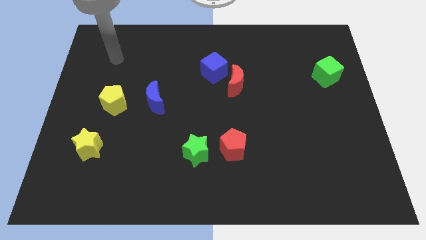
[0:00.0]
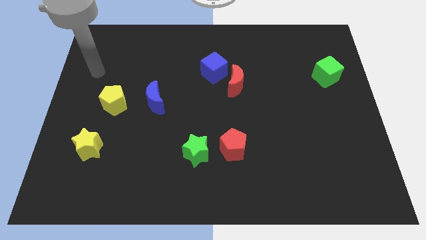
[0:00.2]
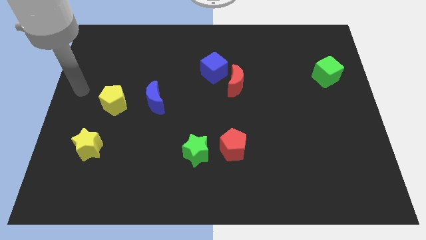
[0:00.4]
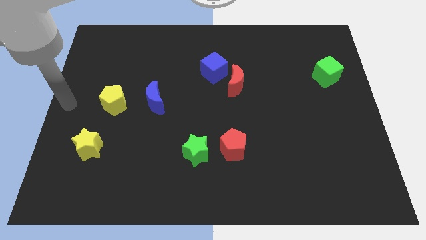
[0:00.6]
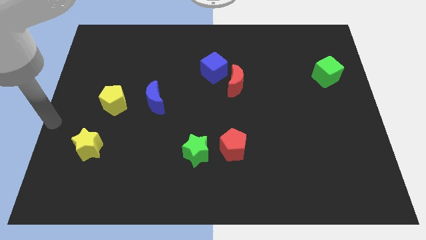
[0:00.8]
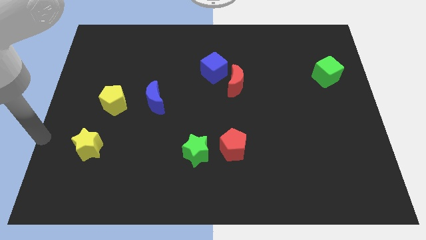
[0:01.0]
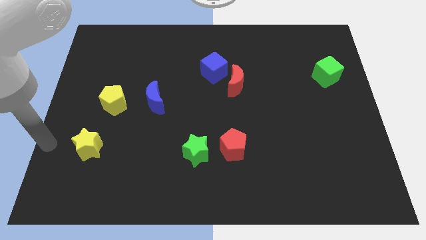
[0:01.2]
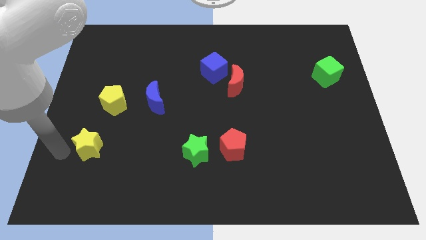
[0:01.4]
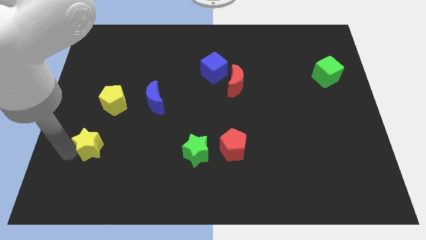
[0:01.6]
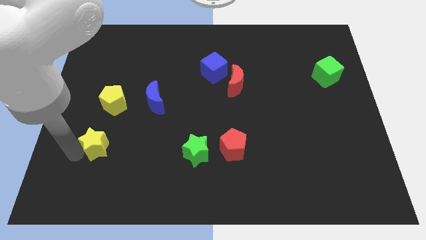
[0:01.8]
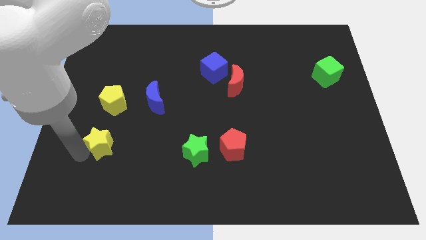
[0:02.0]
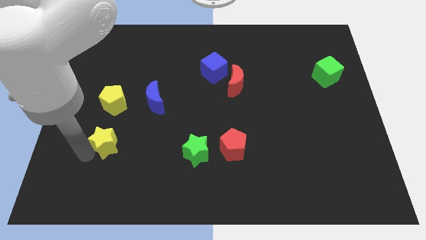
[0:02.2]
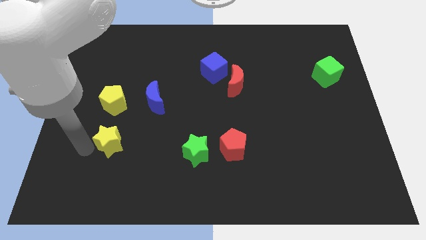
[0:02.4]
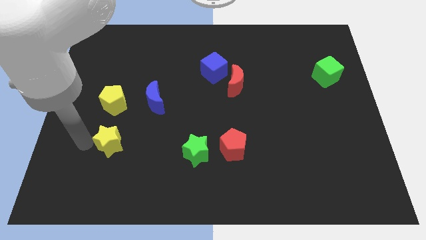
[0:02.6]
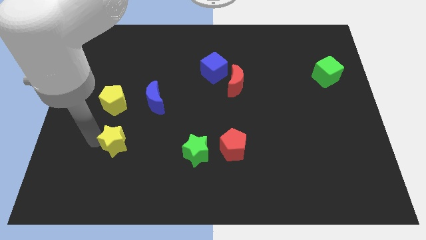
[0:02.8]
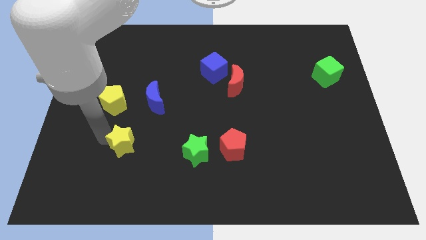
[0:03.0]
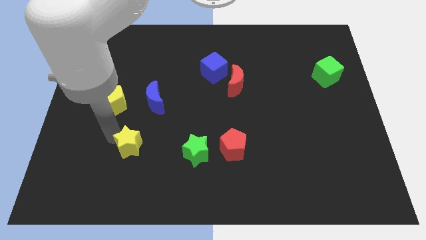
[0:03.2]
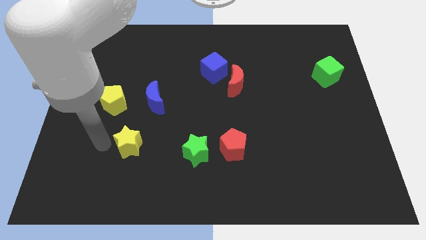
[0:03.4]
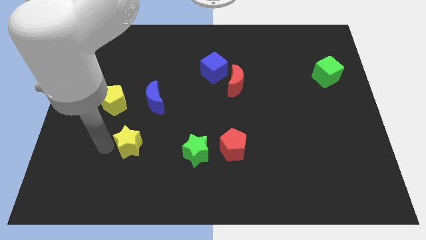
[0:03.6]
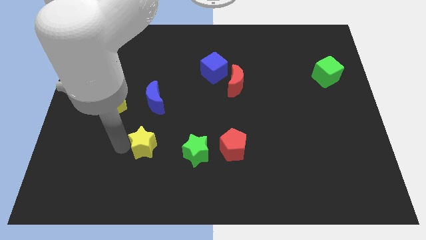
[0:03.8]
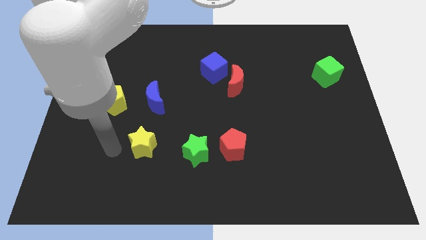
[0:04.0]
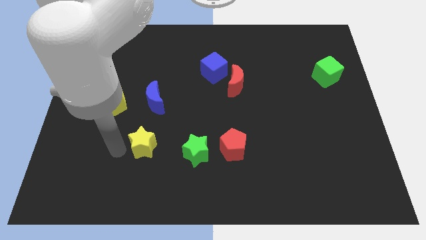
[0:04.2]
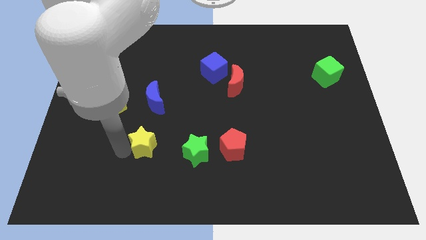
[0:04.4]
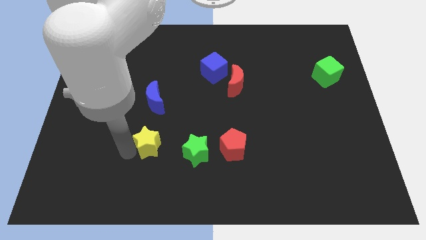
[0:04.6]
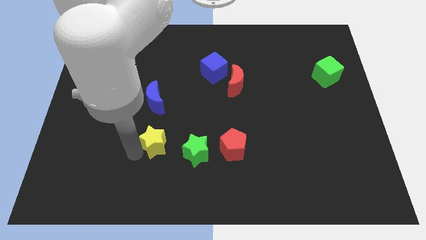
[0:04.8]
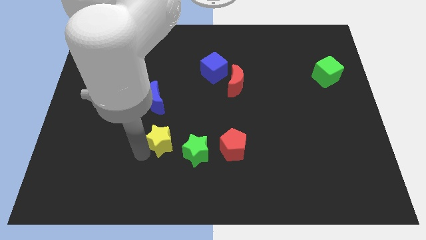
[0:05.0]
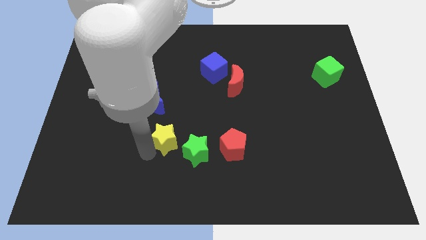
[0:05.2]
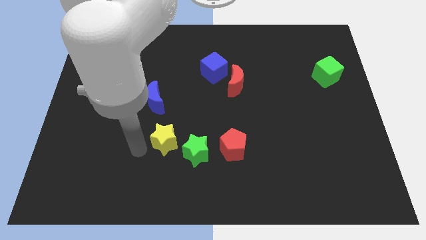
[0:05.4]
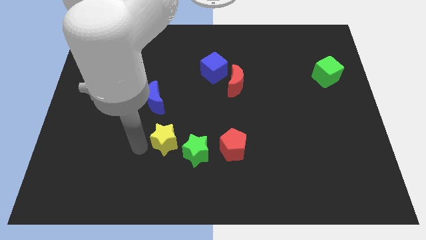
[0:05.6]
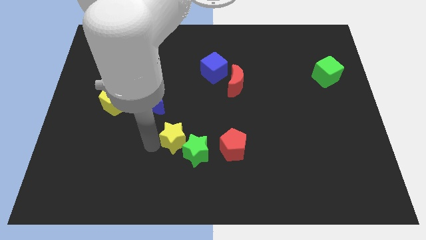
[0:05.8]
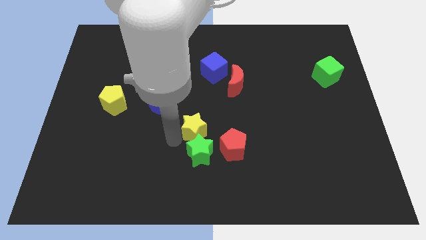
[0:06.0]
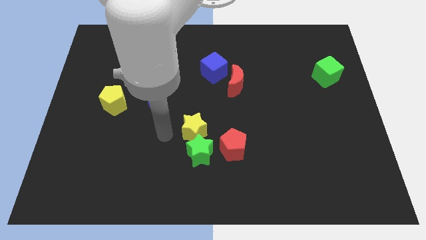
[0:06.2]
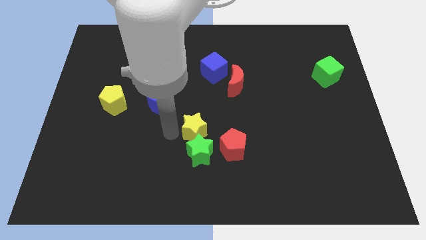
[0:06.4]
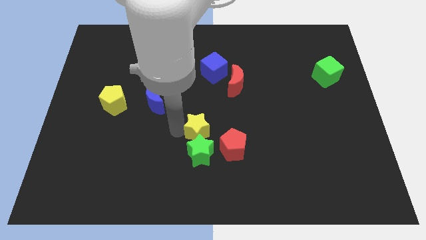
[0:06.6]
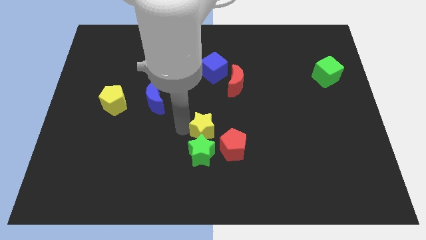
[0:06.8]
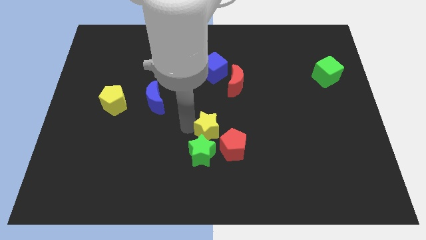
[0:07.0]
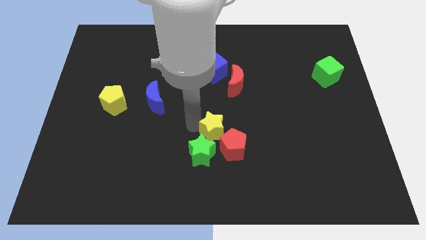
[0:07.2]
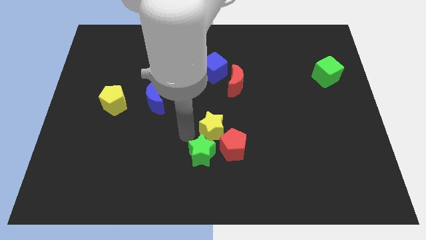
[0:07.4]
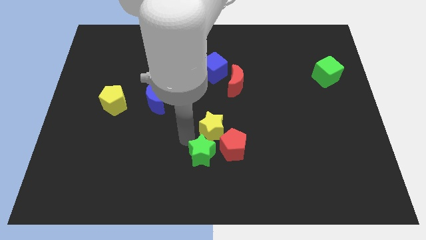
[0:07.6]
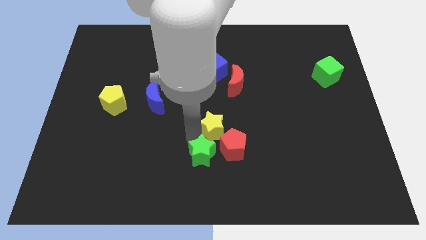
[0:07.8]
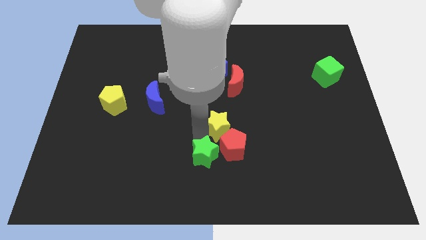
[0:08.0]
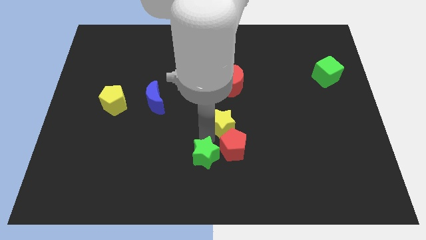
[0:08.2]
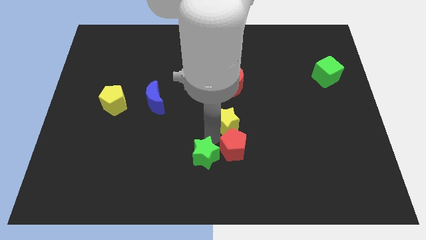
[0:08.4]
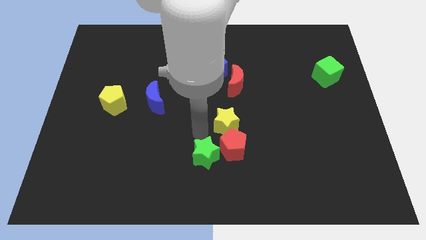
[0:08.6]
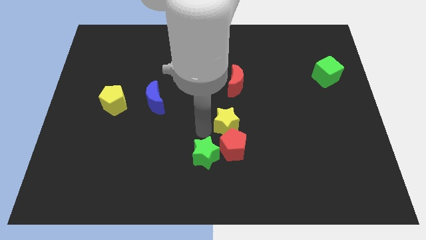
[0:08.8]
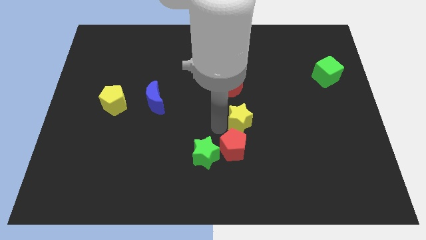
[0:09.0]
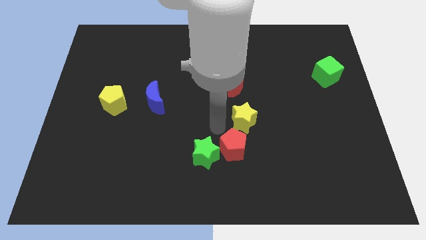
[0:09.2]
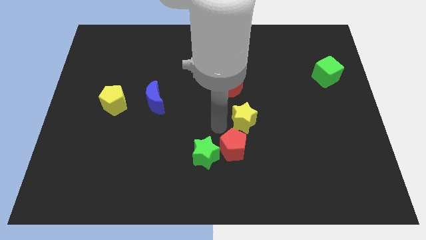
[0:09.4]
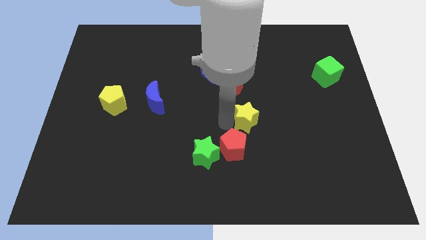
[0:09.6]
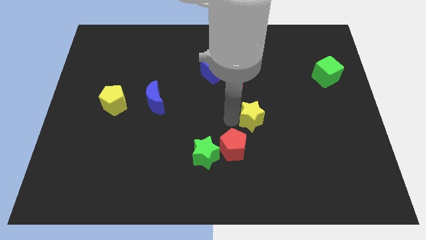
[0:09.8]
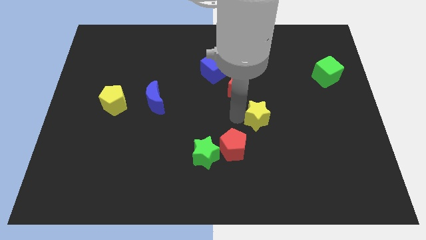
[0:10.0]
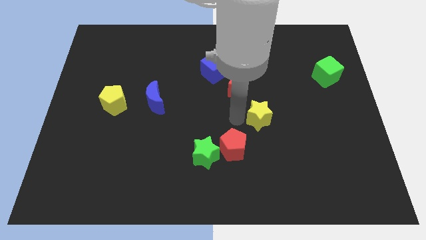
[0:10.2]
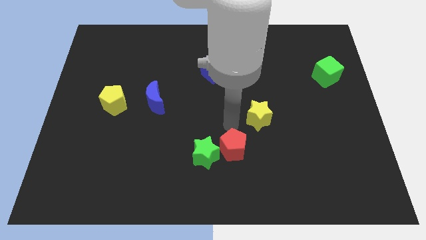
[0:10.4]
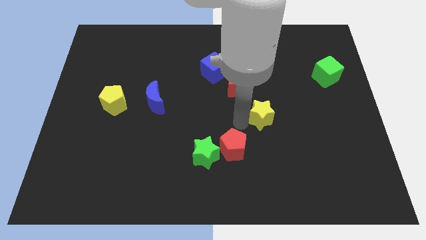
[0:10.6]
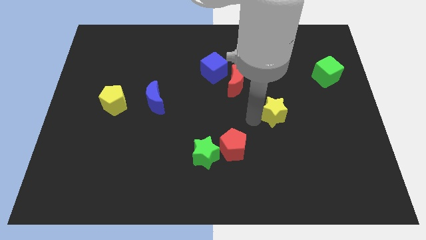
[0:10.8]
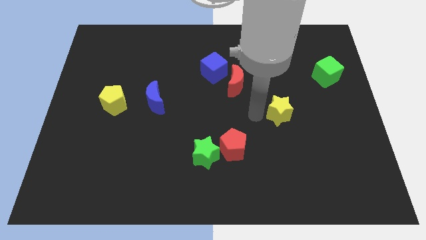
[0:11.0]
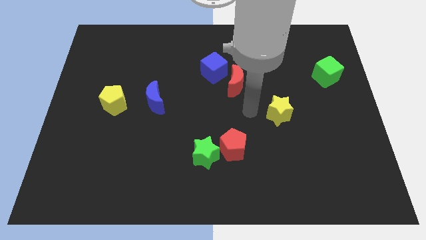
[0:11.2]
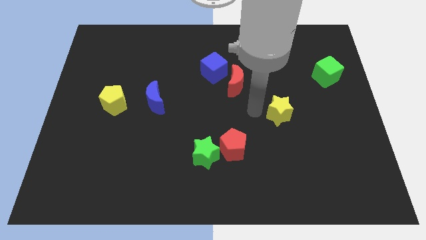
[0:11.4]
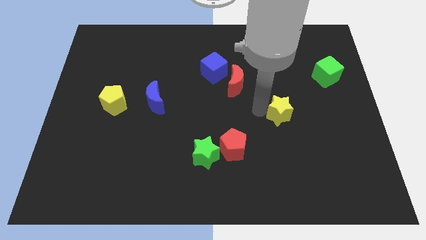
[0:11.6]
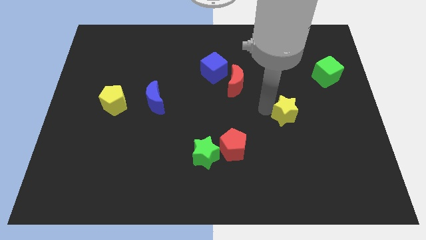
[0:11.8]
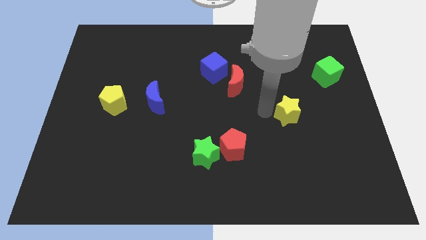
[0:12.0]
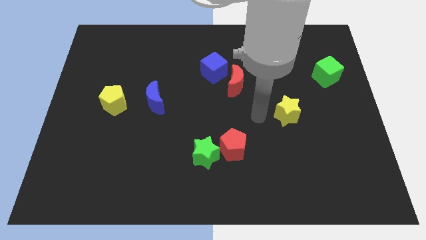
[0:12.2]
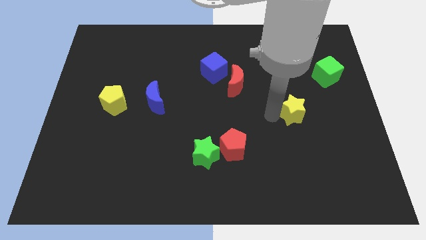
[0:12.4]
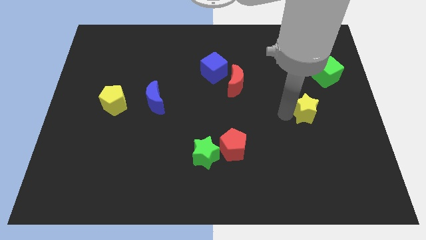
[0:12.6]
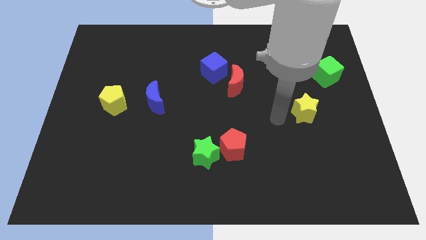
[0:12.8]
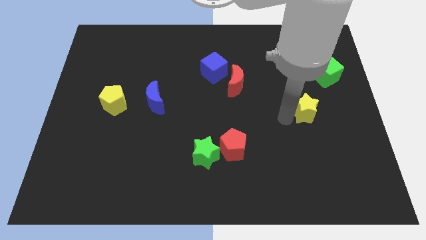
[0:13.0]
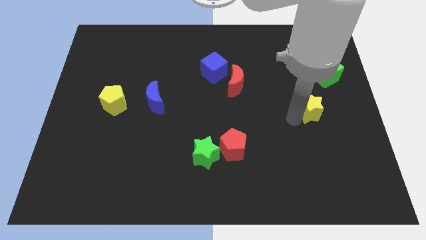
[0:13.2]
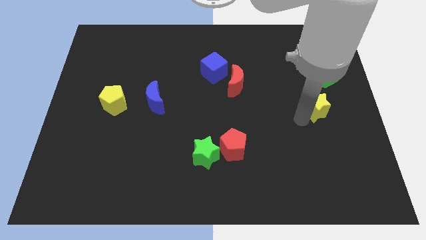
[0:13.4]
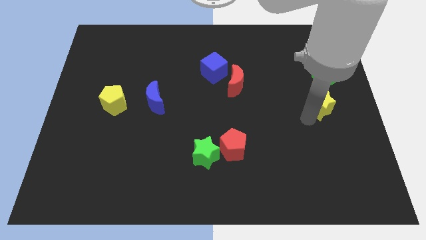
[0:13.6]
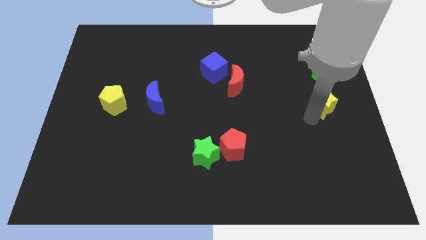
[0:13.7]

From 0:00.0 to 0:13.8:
push the yellow star to the center right

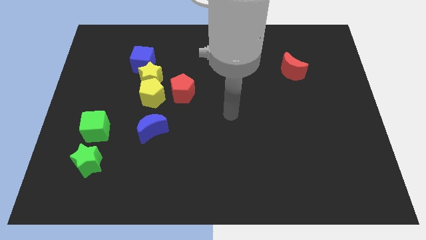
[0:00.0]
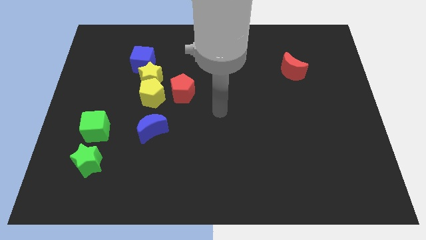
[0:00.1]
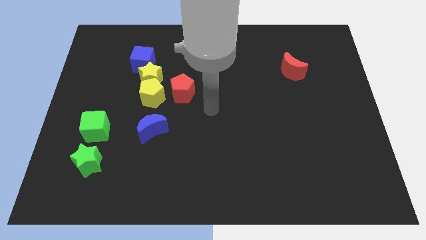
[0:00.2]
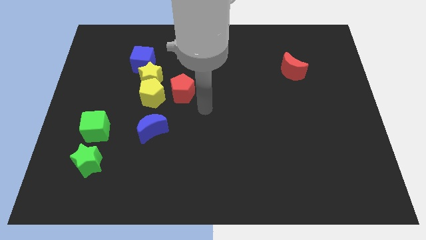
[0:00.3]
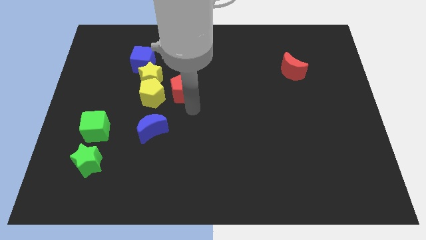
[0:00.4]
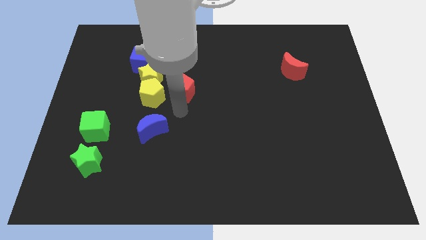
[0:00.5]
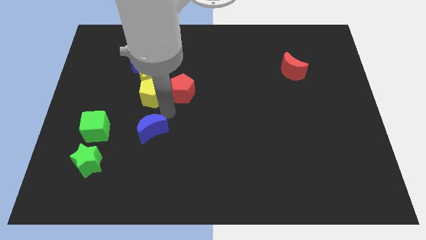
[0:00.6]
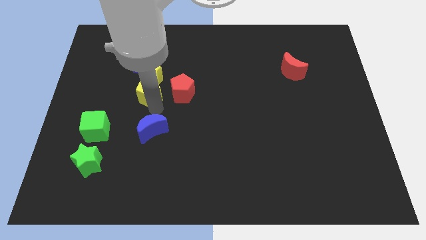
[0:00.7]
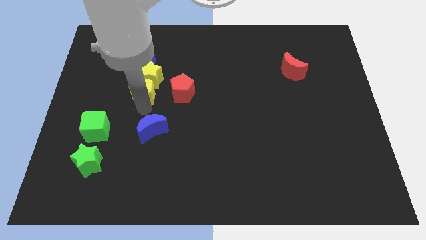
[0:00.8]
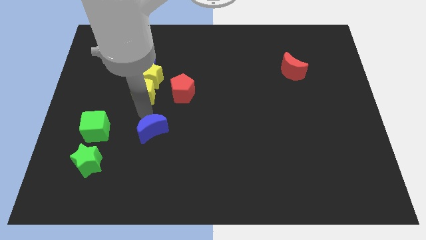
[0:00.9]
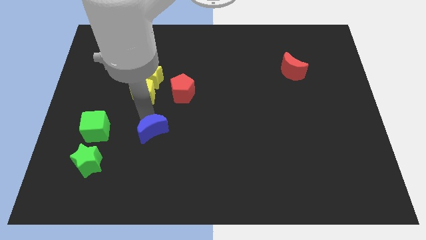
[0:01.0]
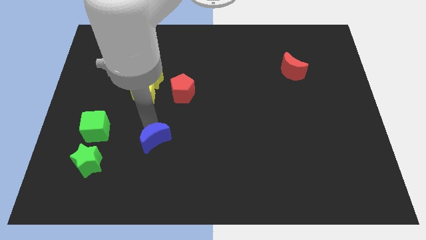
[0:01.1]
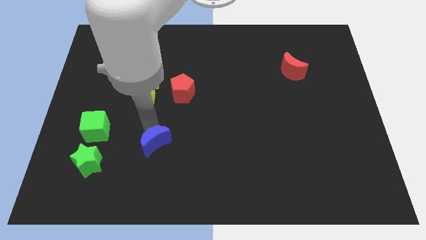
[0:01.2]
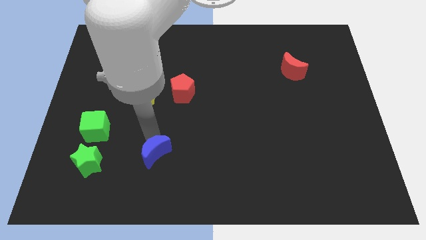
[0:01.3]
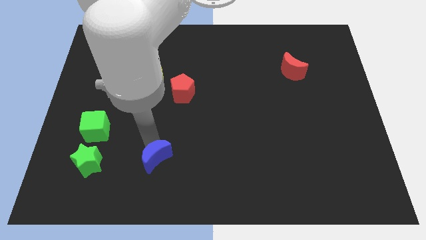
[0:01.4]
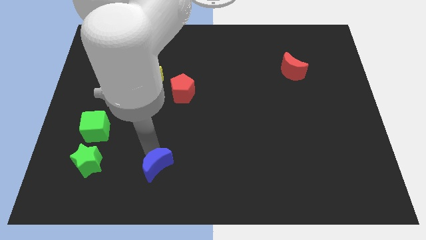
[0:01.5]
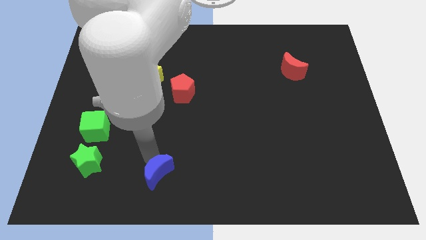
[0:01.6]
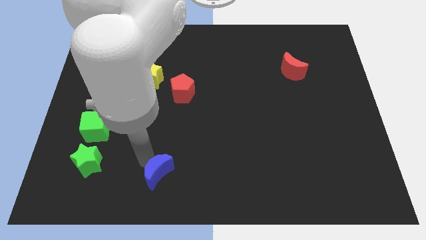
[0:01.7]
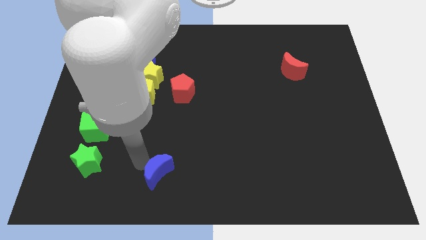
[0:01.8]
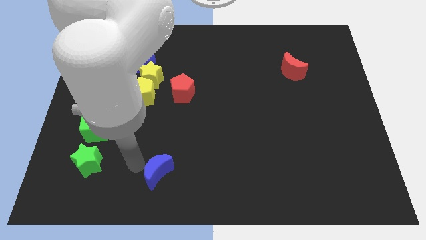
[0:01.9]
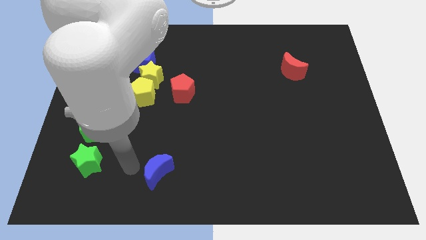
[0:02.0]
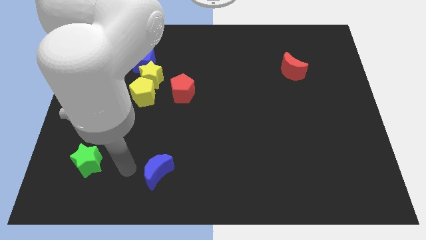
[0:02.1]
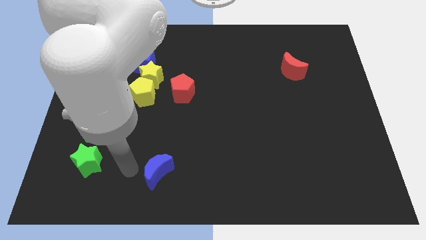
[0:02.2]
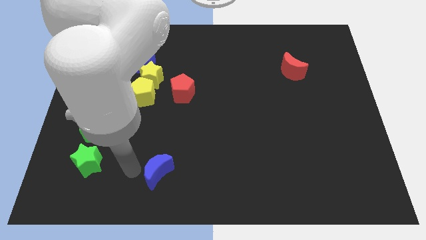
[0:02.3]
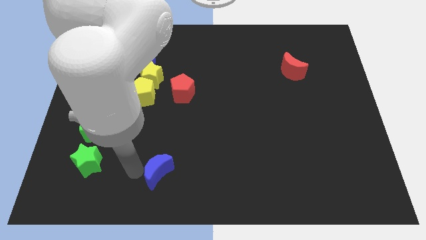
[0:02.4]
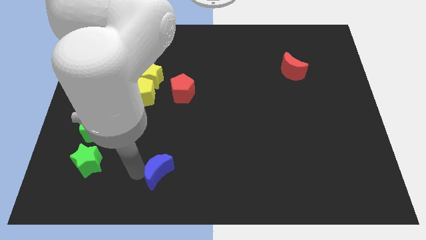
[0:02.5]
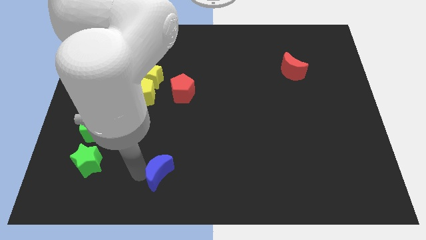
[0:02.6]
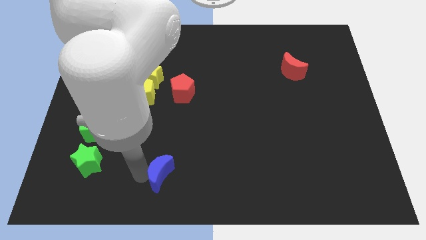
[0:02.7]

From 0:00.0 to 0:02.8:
slide the blue moon to the bottom side
